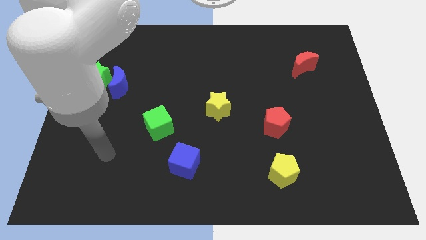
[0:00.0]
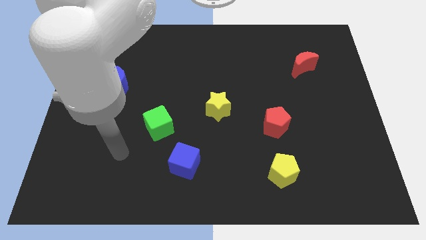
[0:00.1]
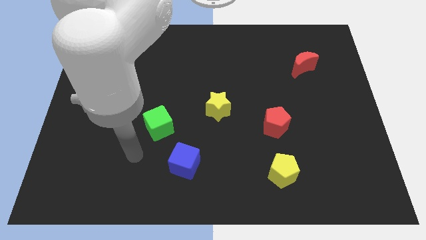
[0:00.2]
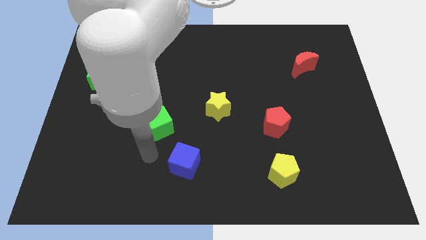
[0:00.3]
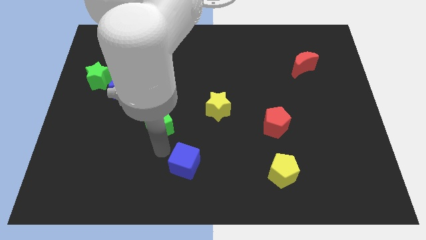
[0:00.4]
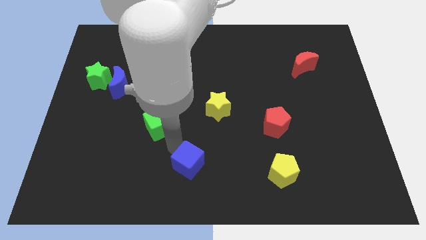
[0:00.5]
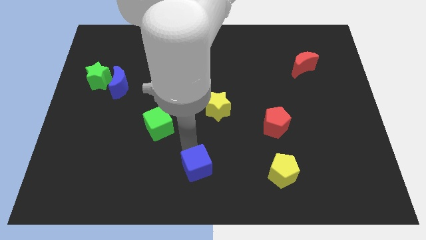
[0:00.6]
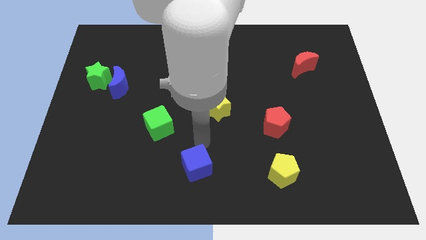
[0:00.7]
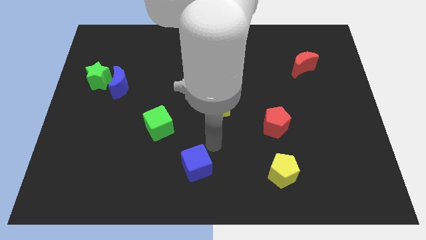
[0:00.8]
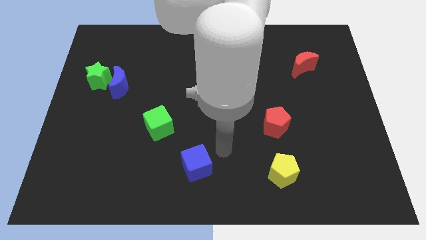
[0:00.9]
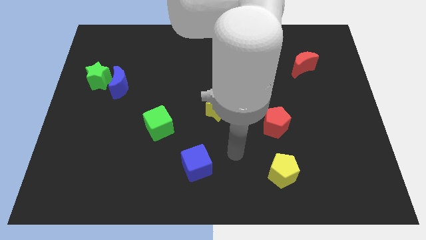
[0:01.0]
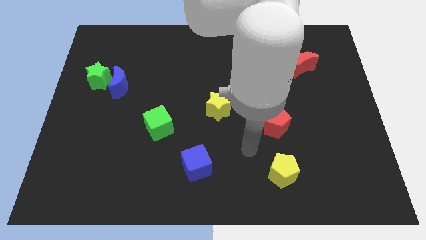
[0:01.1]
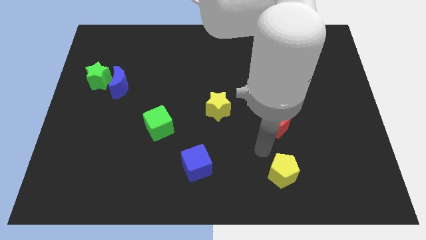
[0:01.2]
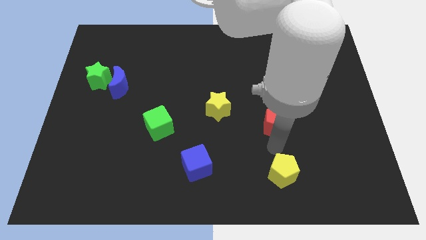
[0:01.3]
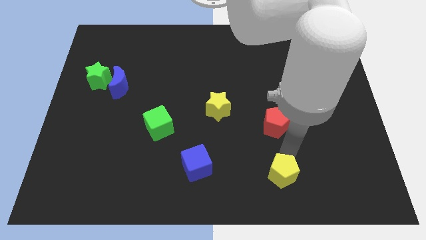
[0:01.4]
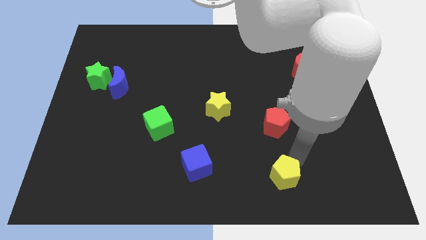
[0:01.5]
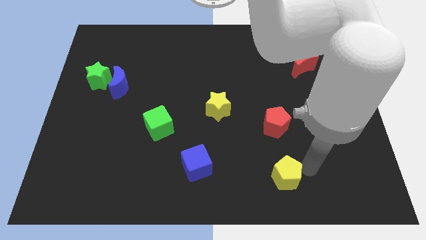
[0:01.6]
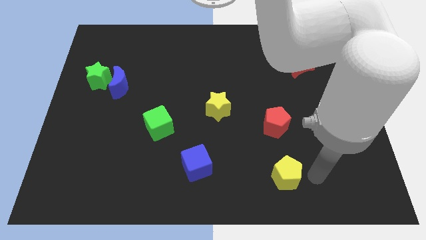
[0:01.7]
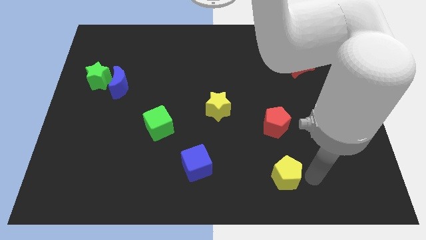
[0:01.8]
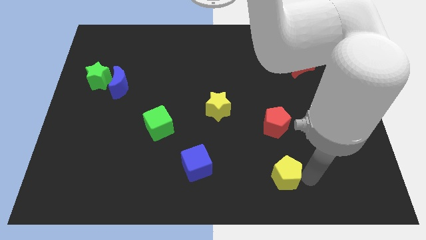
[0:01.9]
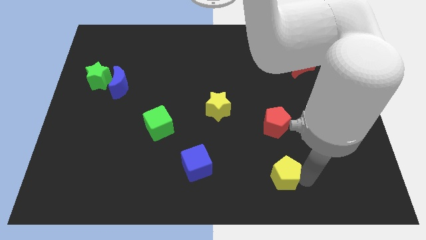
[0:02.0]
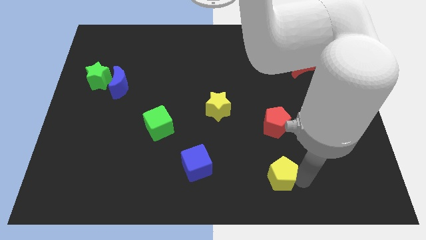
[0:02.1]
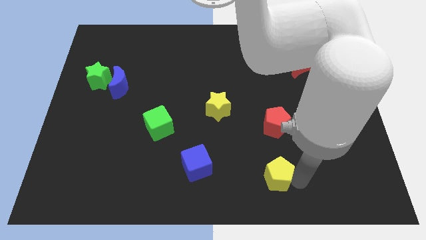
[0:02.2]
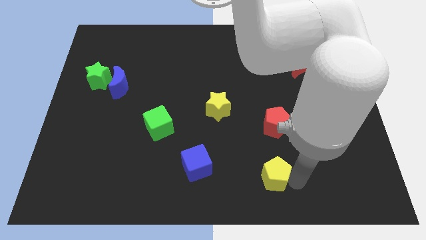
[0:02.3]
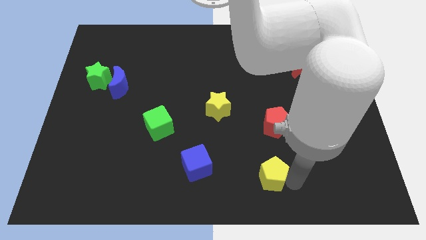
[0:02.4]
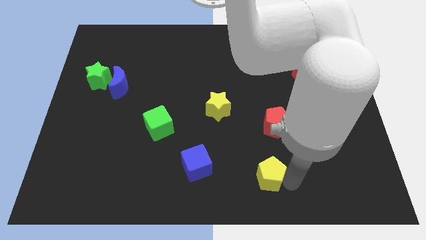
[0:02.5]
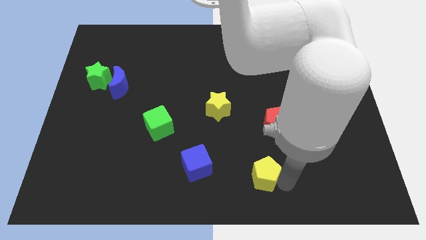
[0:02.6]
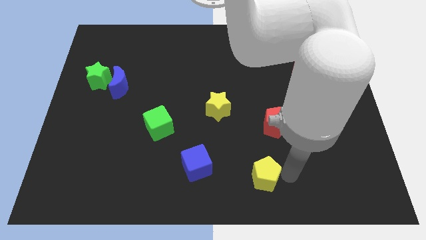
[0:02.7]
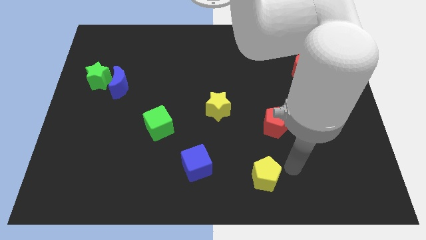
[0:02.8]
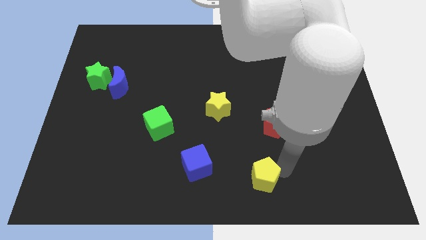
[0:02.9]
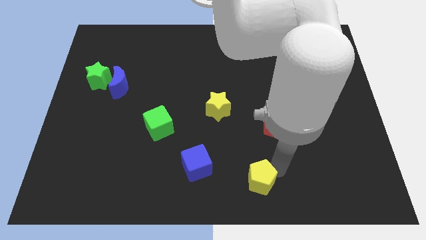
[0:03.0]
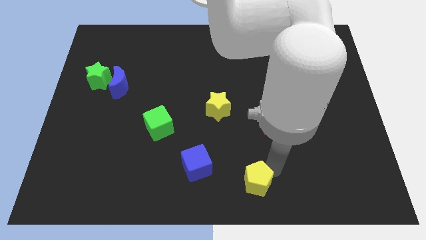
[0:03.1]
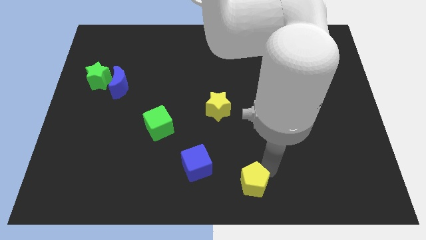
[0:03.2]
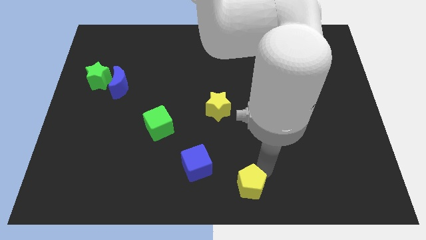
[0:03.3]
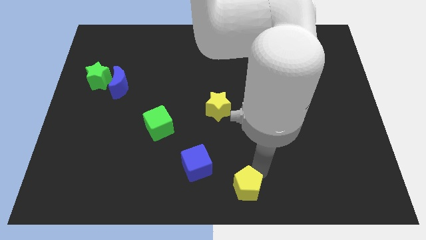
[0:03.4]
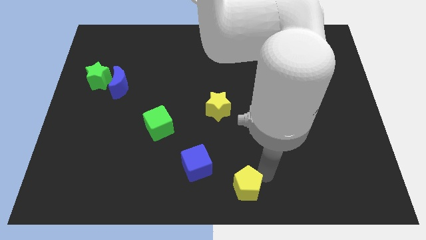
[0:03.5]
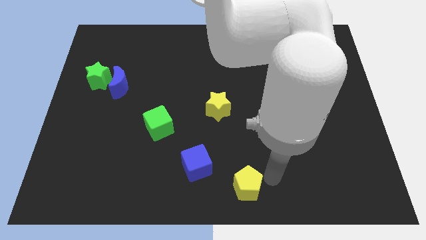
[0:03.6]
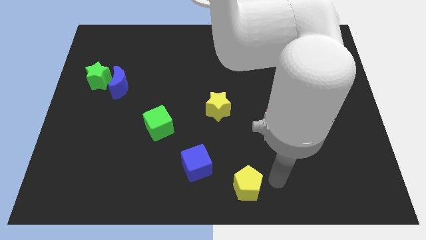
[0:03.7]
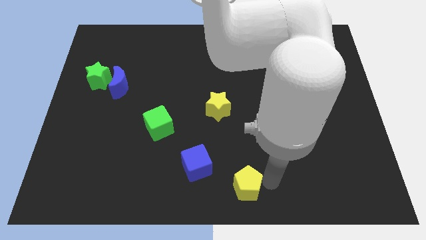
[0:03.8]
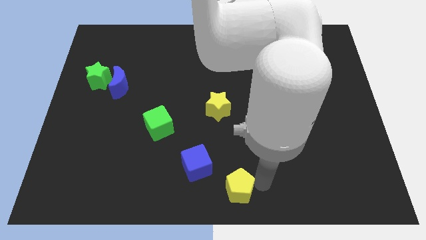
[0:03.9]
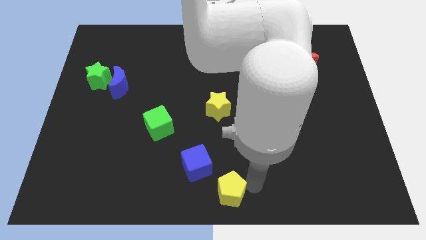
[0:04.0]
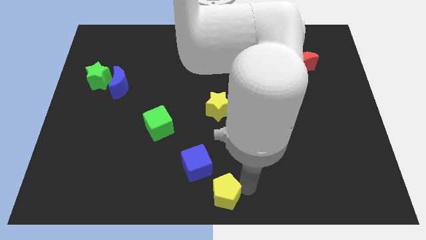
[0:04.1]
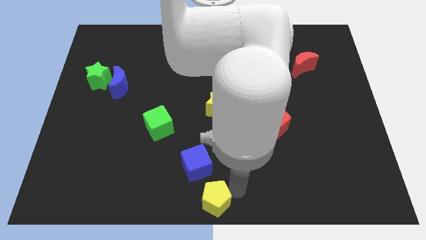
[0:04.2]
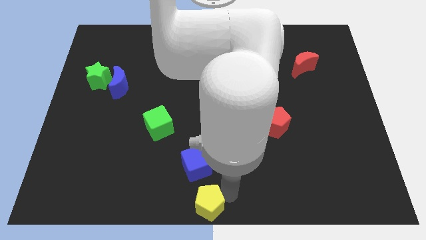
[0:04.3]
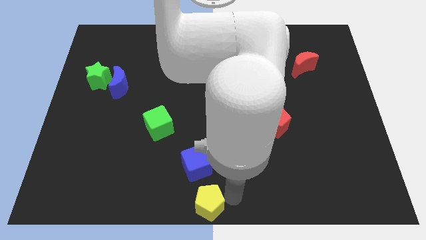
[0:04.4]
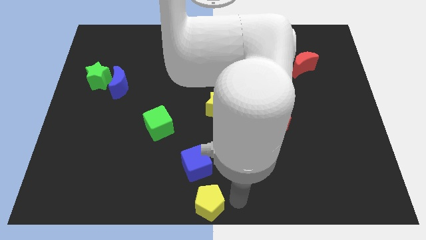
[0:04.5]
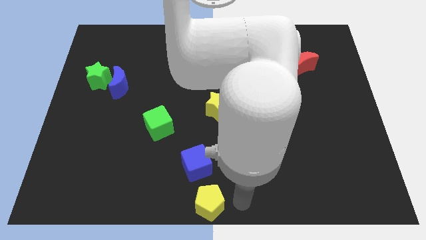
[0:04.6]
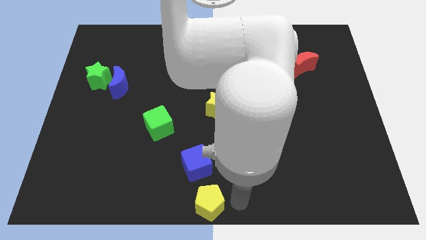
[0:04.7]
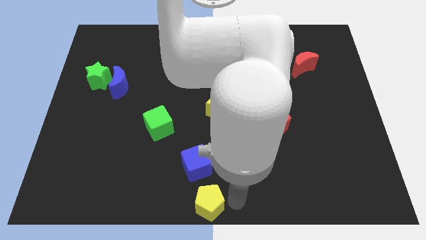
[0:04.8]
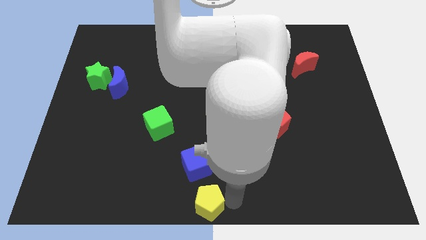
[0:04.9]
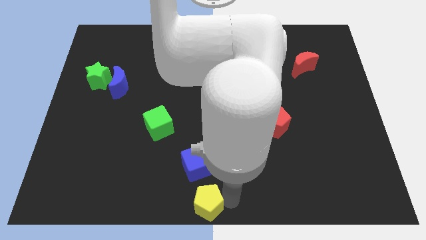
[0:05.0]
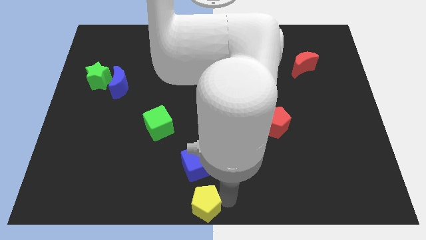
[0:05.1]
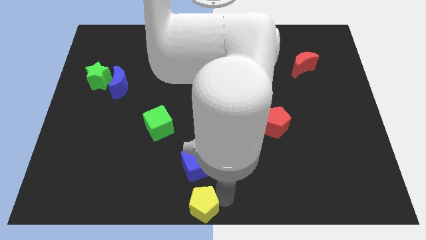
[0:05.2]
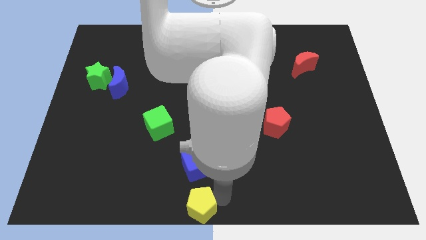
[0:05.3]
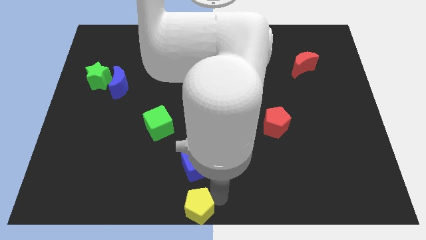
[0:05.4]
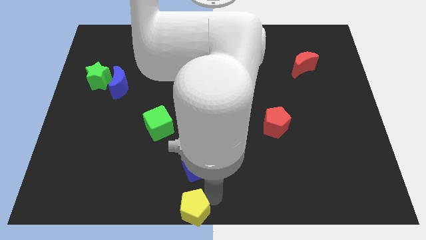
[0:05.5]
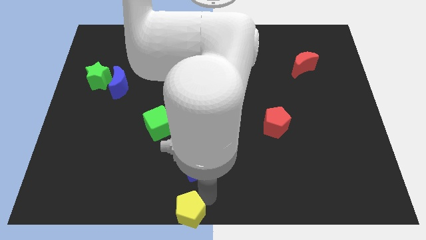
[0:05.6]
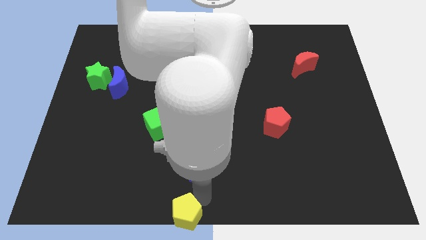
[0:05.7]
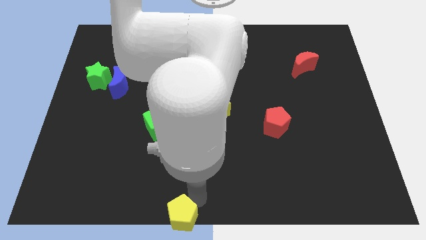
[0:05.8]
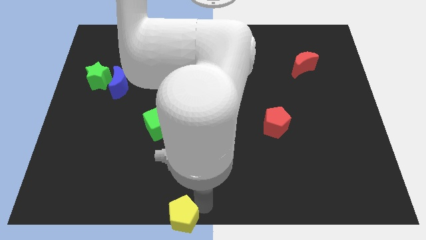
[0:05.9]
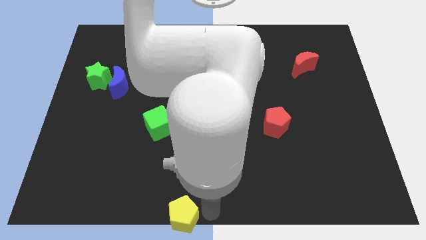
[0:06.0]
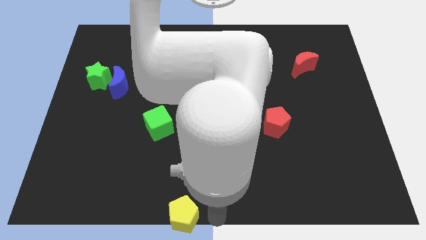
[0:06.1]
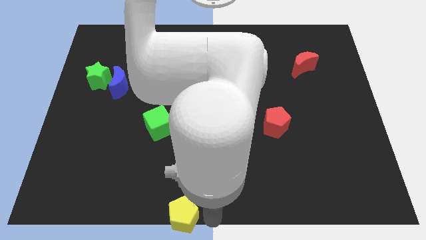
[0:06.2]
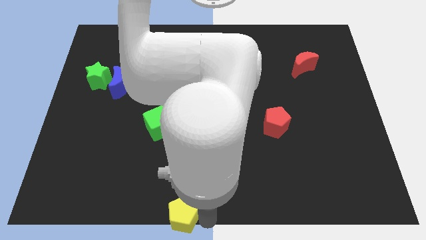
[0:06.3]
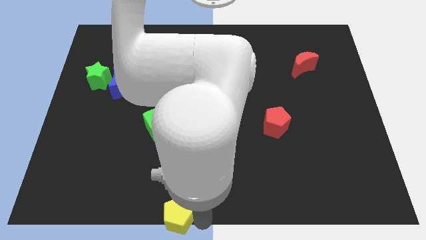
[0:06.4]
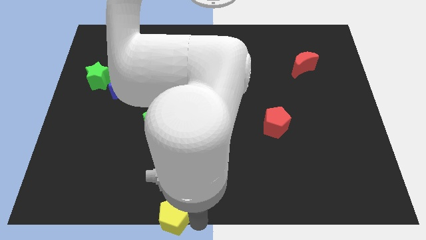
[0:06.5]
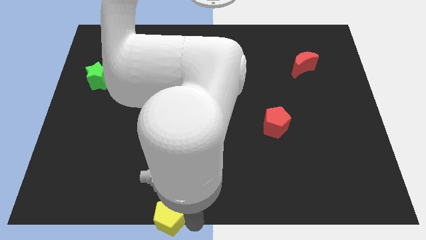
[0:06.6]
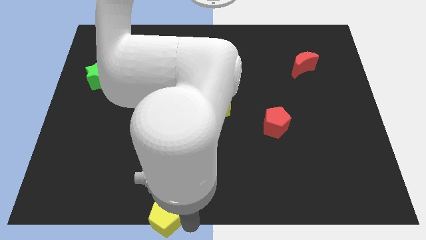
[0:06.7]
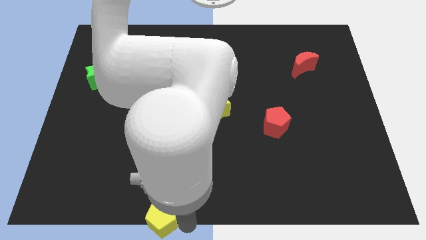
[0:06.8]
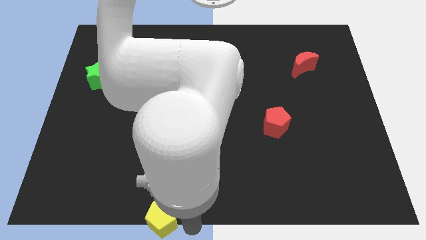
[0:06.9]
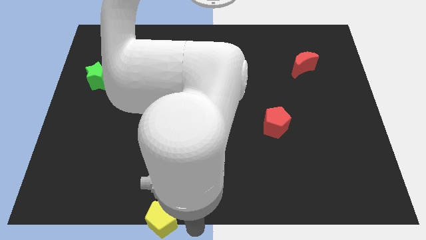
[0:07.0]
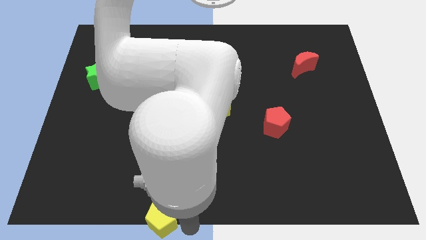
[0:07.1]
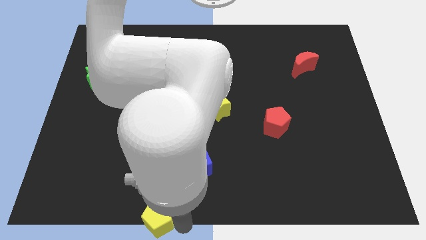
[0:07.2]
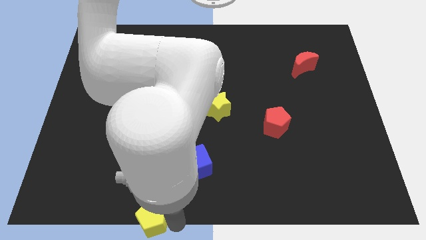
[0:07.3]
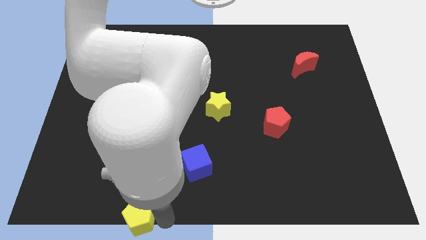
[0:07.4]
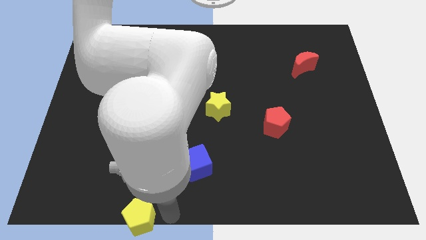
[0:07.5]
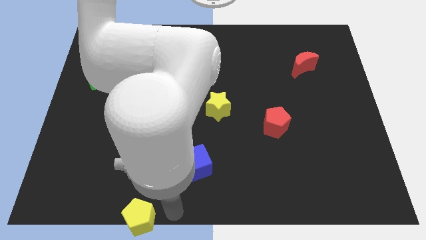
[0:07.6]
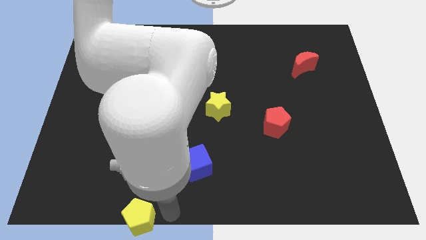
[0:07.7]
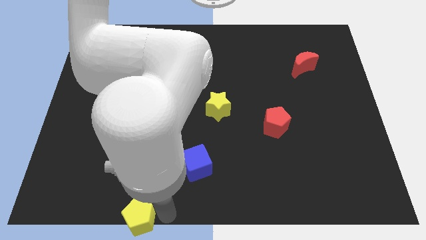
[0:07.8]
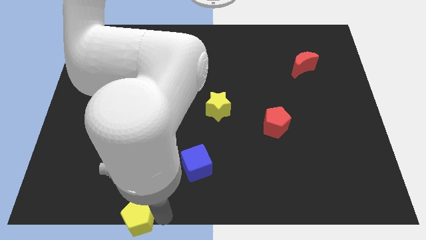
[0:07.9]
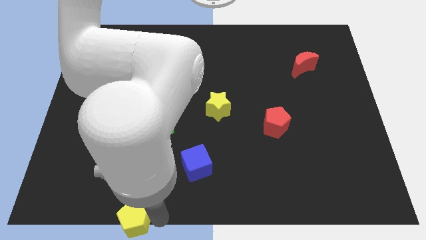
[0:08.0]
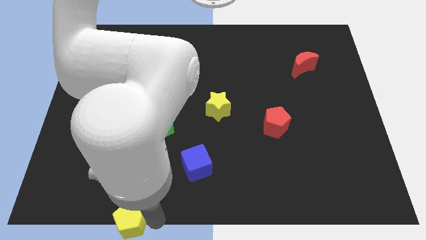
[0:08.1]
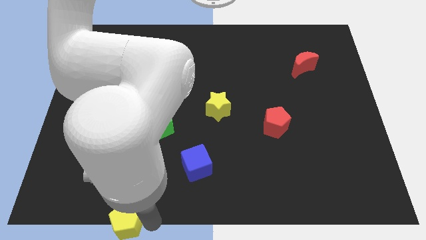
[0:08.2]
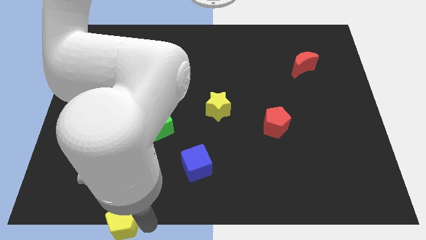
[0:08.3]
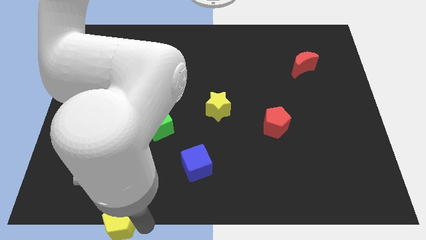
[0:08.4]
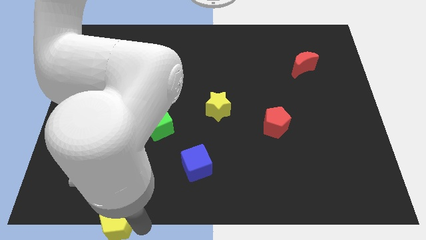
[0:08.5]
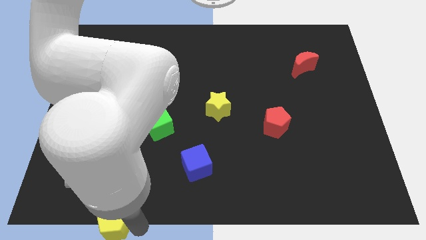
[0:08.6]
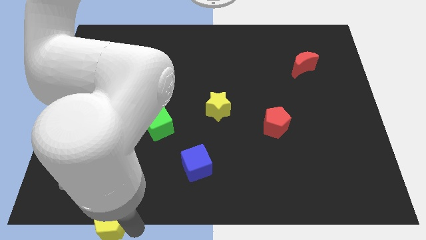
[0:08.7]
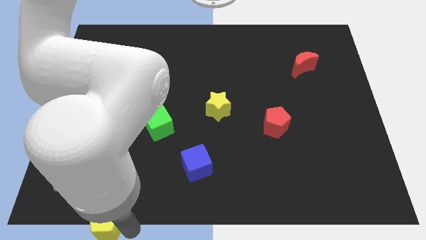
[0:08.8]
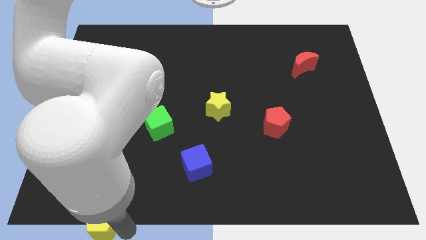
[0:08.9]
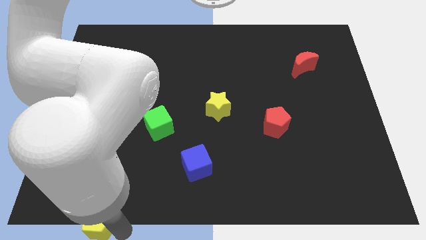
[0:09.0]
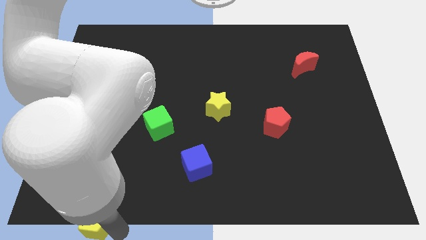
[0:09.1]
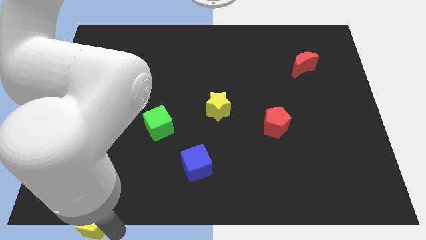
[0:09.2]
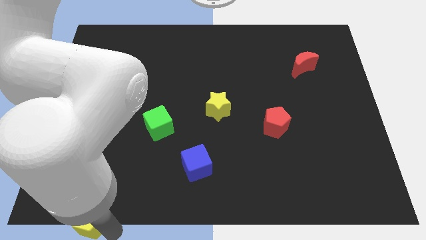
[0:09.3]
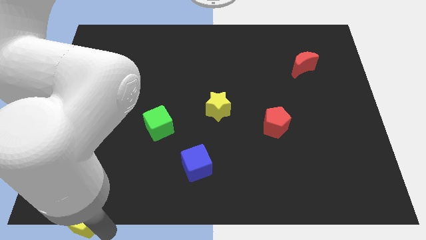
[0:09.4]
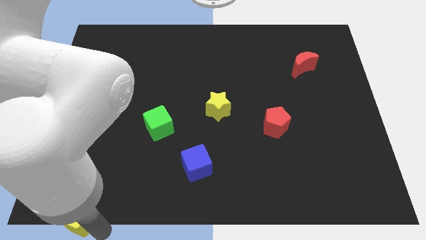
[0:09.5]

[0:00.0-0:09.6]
push the yellow pentagon to the bottom left
